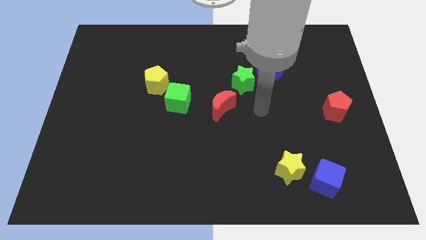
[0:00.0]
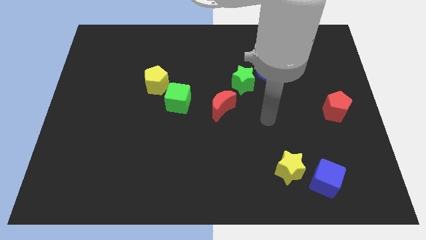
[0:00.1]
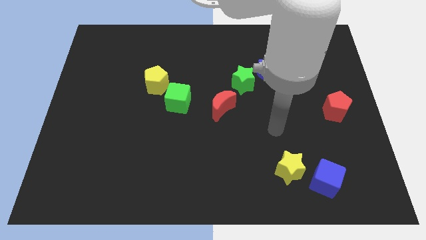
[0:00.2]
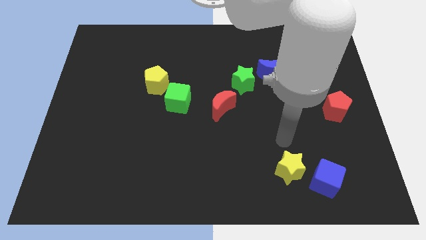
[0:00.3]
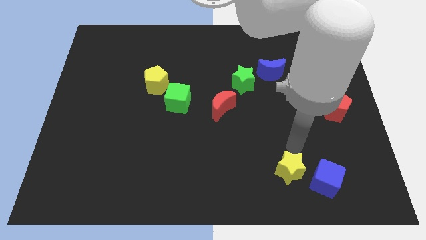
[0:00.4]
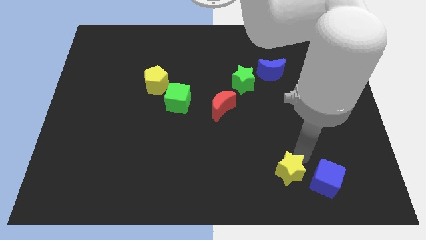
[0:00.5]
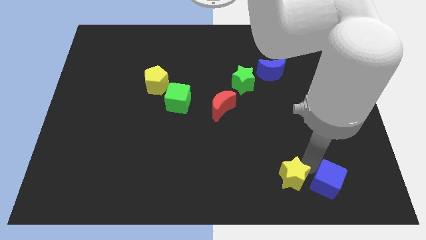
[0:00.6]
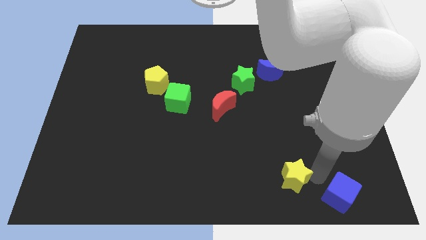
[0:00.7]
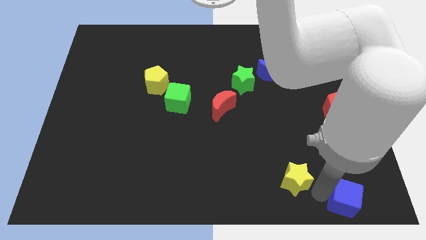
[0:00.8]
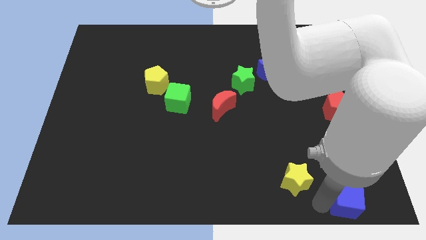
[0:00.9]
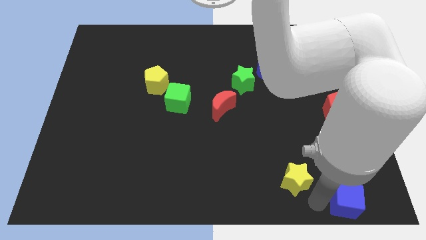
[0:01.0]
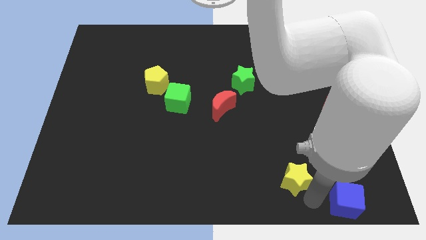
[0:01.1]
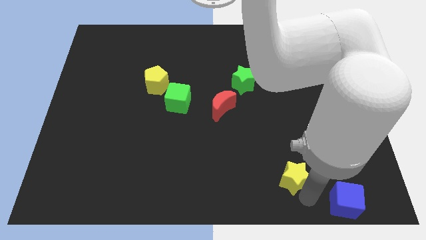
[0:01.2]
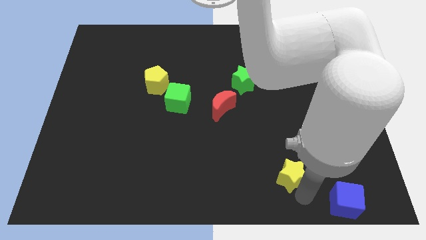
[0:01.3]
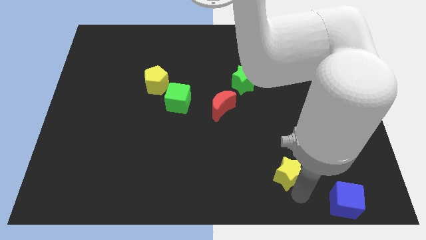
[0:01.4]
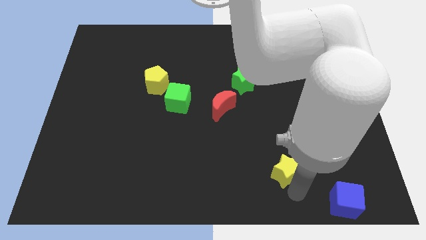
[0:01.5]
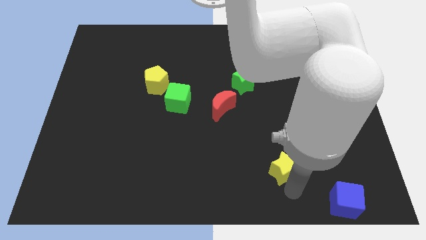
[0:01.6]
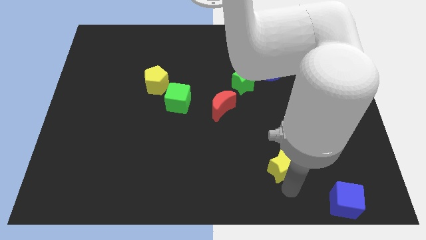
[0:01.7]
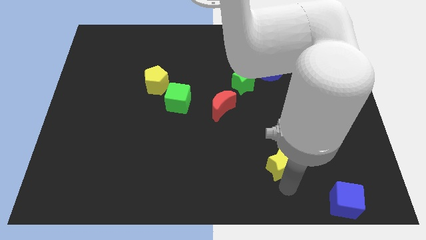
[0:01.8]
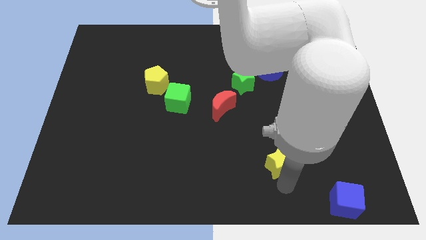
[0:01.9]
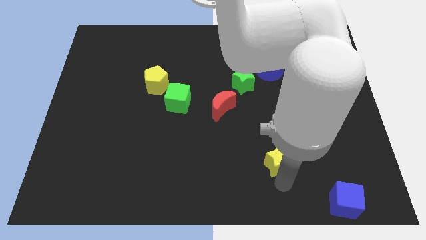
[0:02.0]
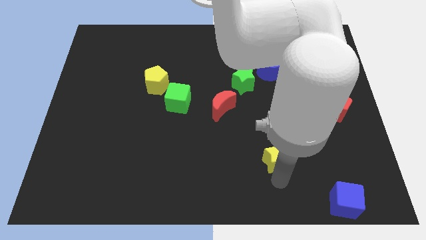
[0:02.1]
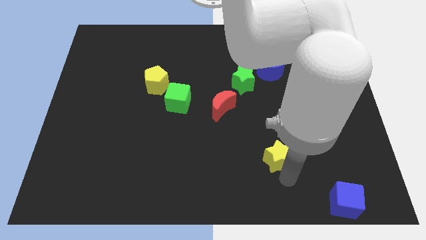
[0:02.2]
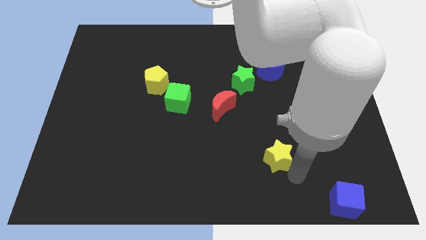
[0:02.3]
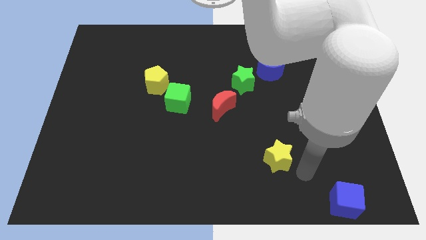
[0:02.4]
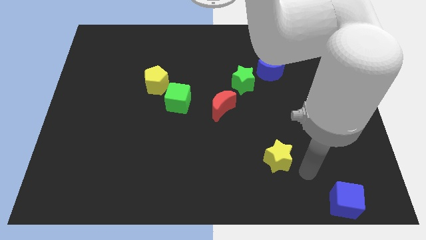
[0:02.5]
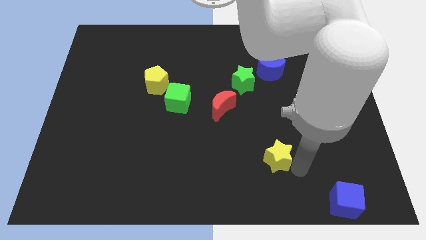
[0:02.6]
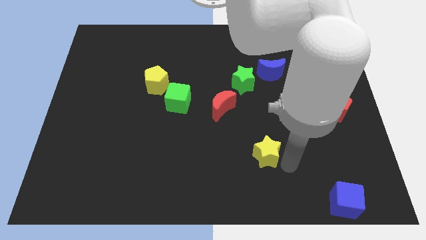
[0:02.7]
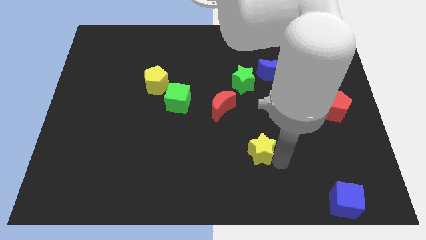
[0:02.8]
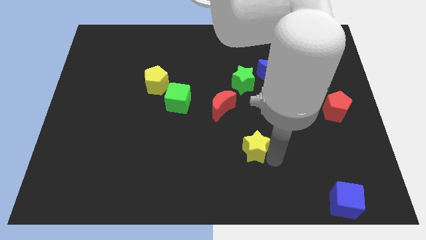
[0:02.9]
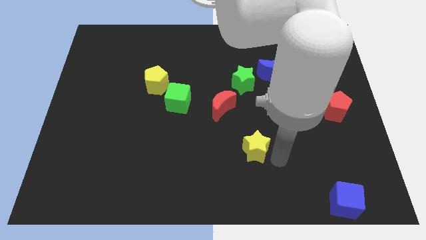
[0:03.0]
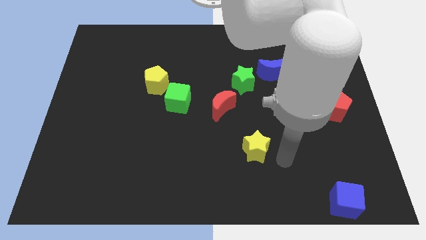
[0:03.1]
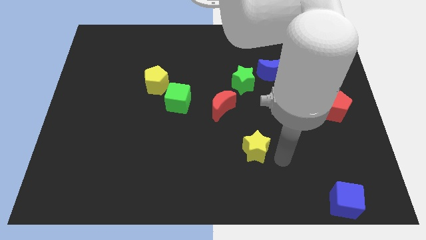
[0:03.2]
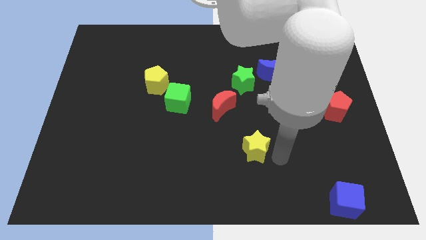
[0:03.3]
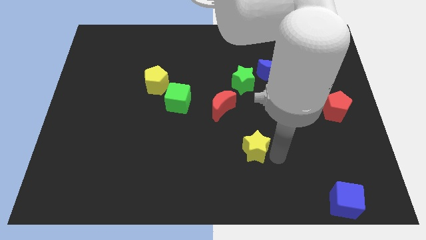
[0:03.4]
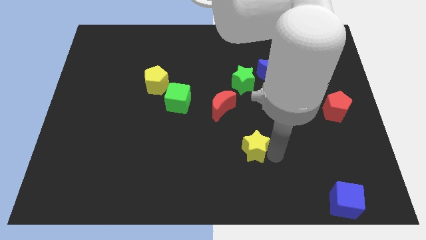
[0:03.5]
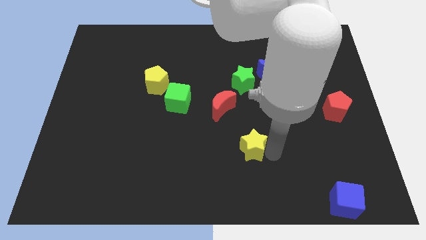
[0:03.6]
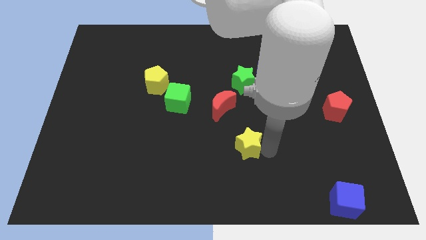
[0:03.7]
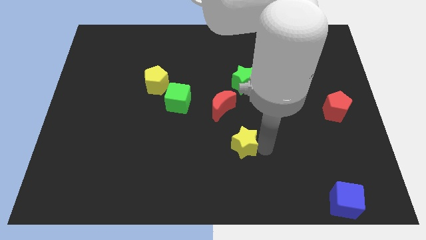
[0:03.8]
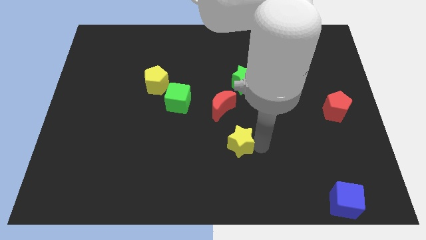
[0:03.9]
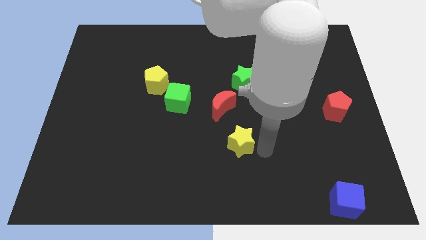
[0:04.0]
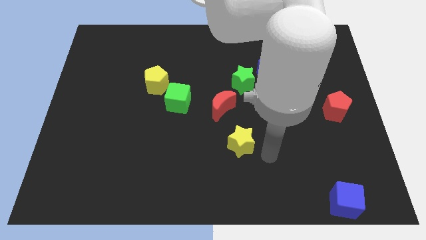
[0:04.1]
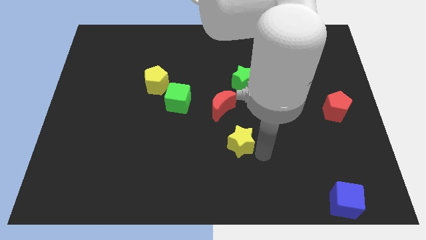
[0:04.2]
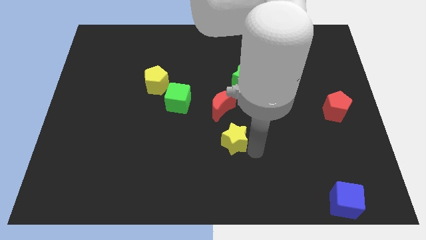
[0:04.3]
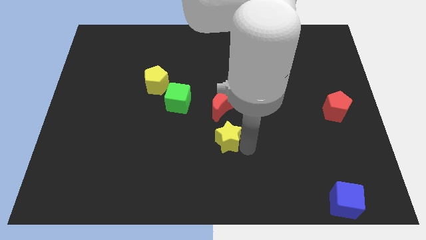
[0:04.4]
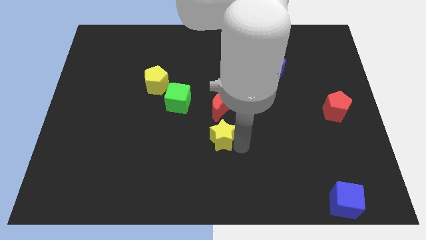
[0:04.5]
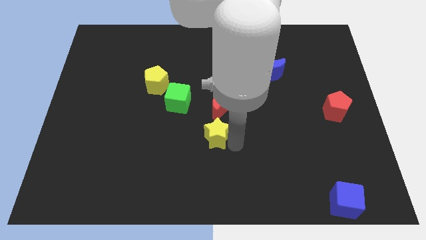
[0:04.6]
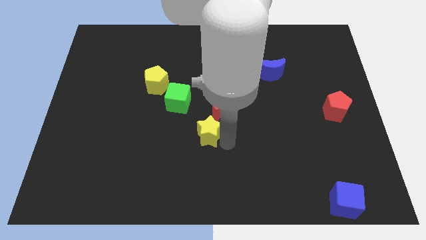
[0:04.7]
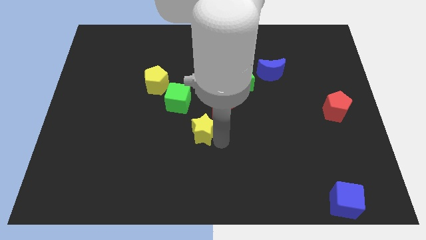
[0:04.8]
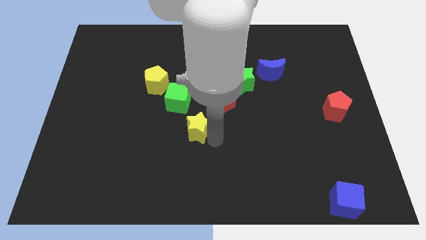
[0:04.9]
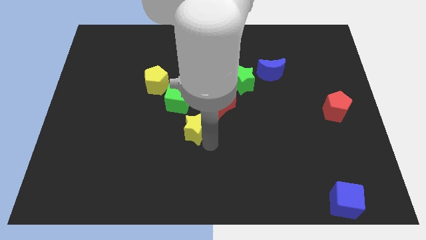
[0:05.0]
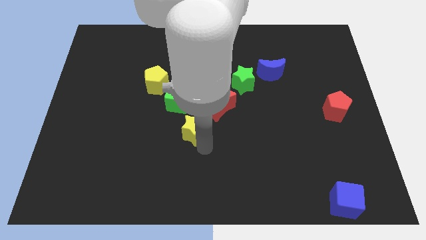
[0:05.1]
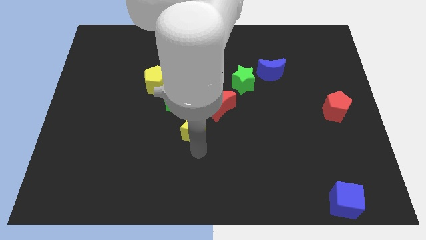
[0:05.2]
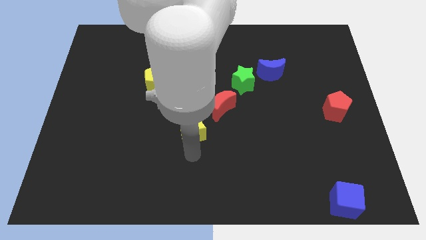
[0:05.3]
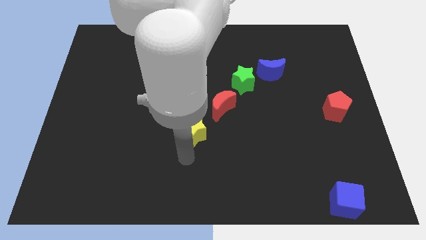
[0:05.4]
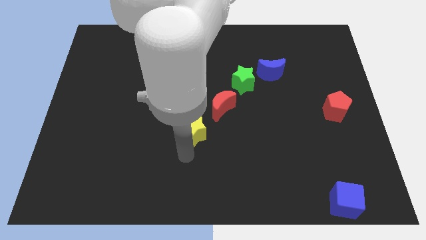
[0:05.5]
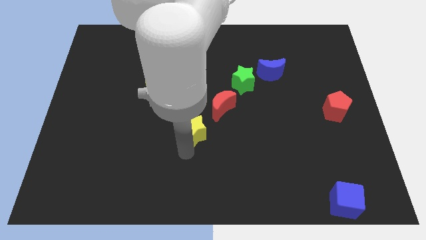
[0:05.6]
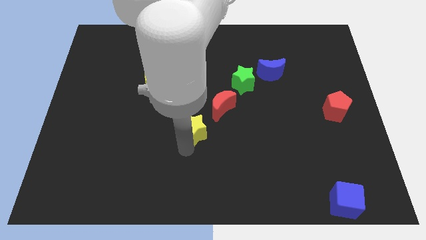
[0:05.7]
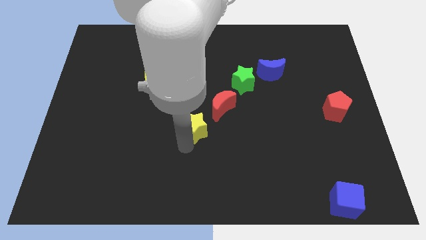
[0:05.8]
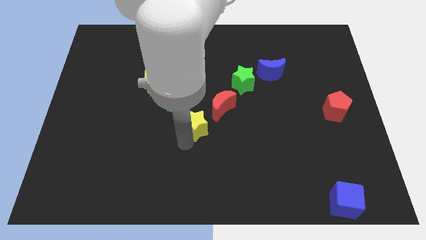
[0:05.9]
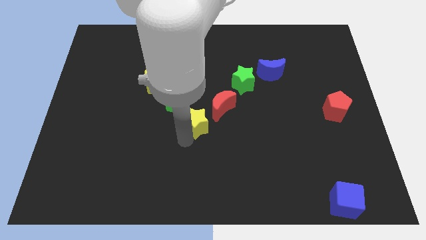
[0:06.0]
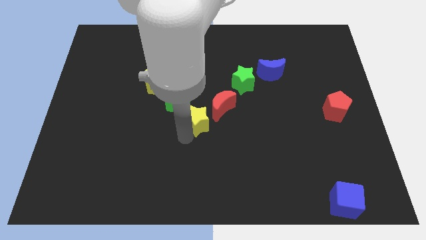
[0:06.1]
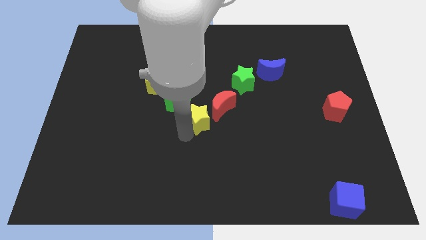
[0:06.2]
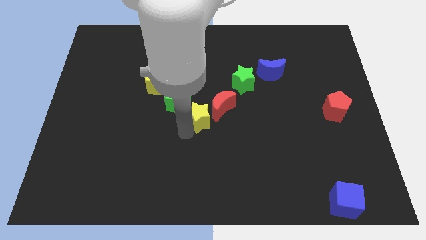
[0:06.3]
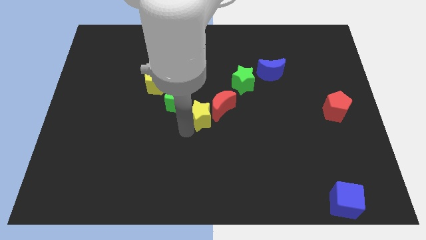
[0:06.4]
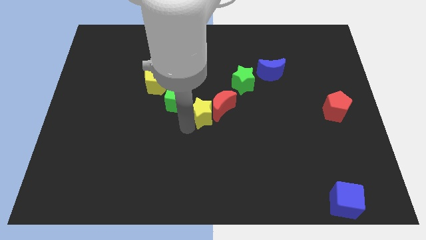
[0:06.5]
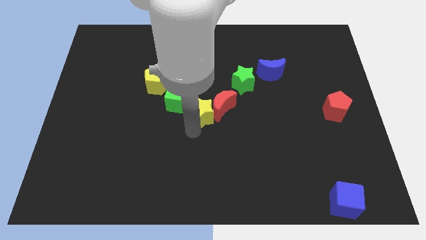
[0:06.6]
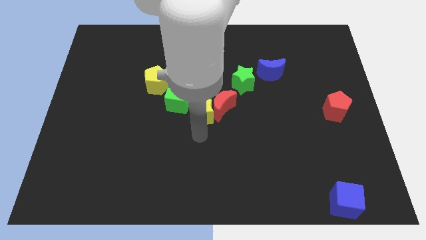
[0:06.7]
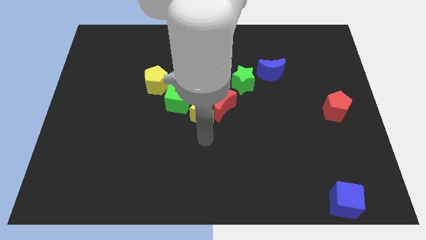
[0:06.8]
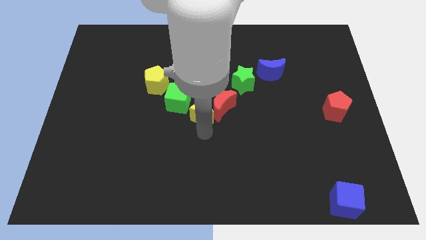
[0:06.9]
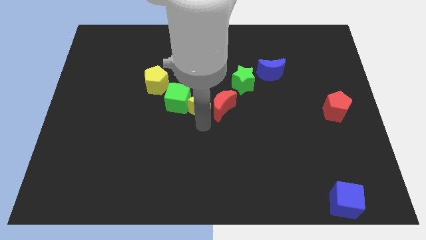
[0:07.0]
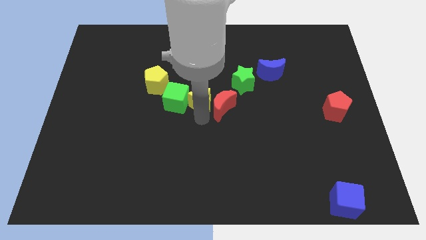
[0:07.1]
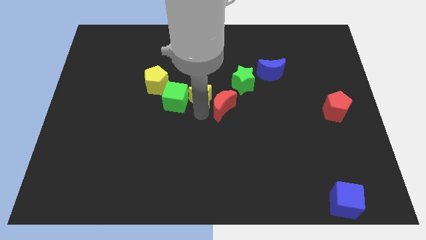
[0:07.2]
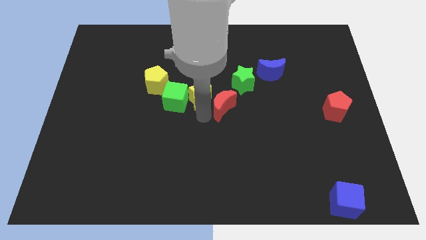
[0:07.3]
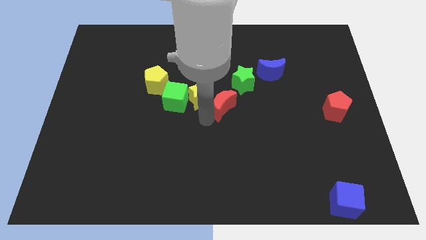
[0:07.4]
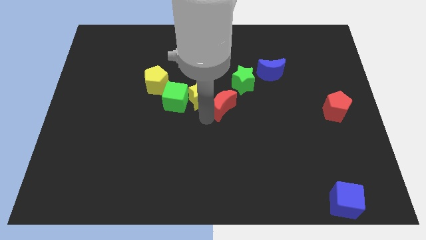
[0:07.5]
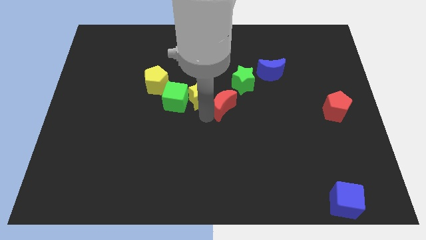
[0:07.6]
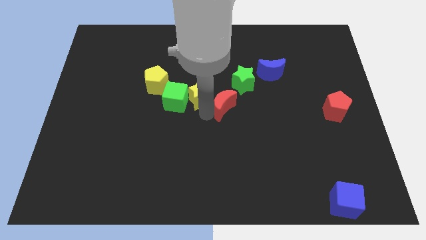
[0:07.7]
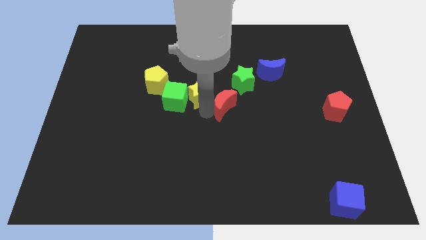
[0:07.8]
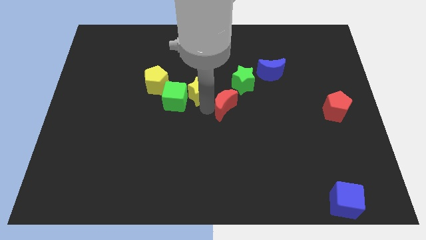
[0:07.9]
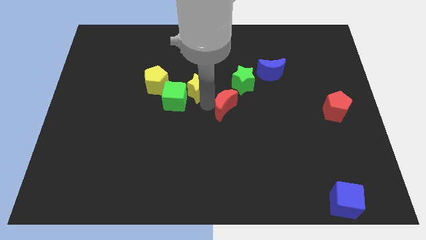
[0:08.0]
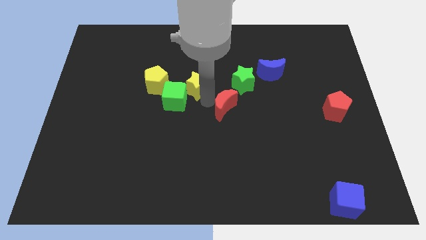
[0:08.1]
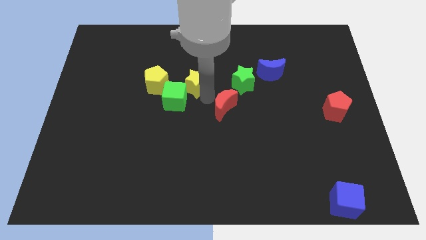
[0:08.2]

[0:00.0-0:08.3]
slide the yellow star above the green cube
